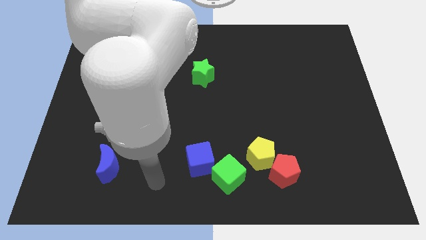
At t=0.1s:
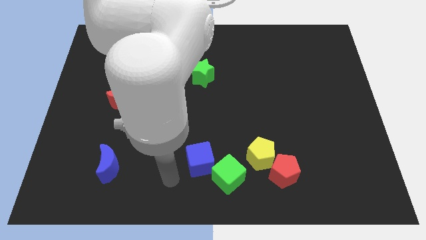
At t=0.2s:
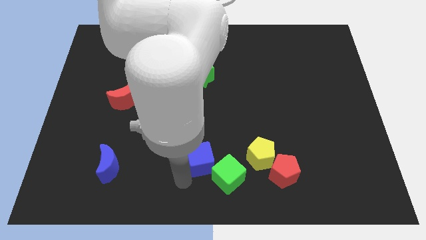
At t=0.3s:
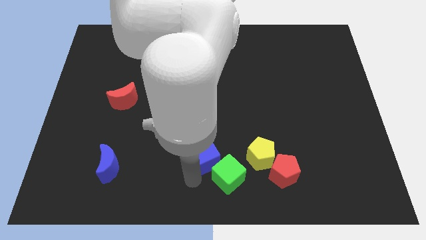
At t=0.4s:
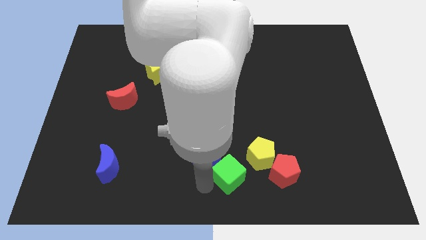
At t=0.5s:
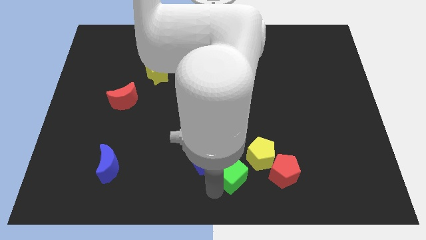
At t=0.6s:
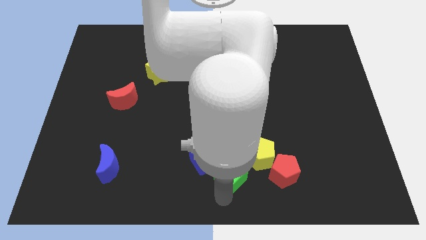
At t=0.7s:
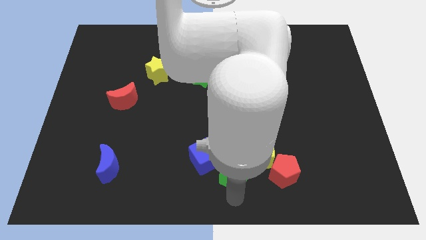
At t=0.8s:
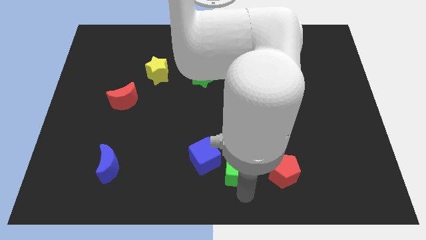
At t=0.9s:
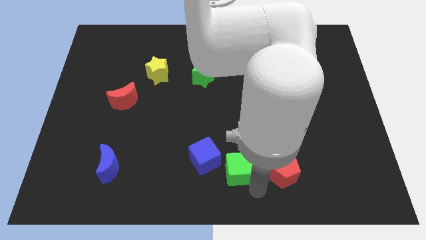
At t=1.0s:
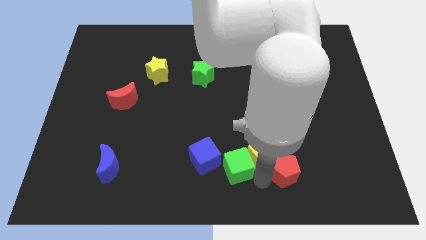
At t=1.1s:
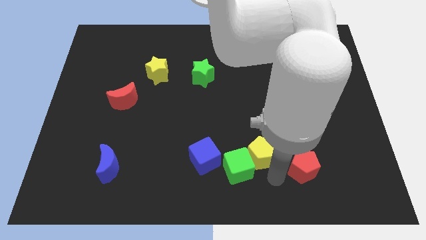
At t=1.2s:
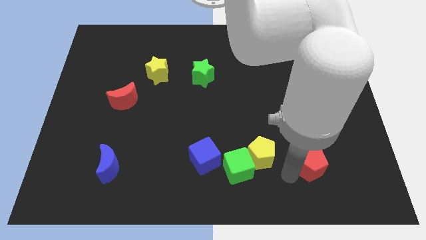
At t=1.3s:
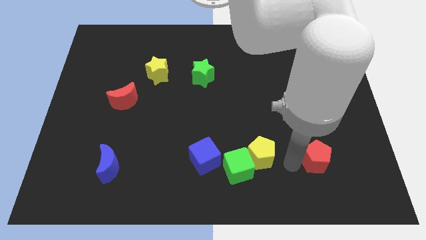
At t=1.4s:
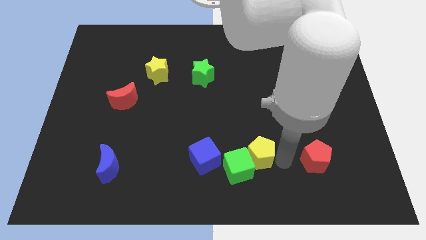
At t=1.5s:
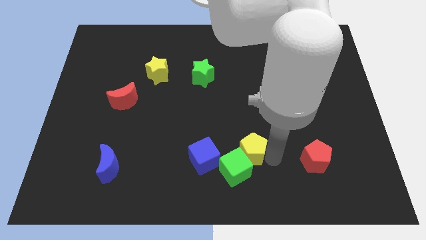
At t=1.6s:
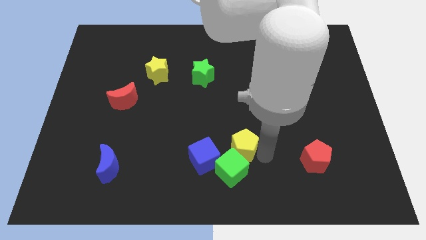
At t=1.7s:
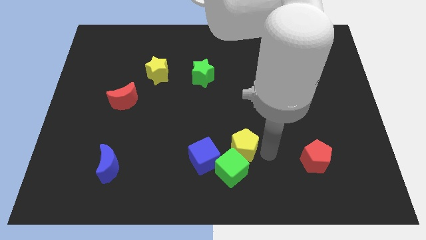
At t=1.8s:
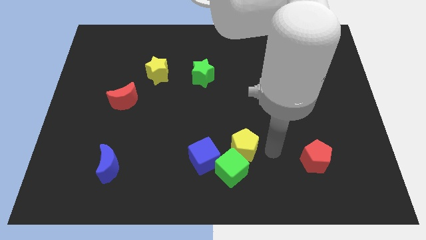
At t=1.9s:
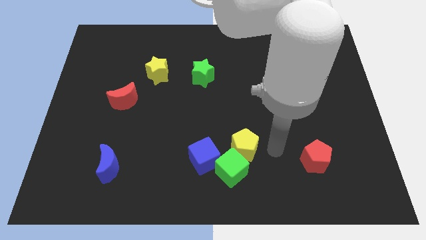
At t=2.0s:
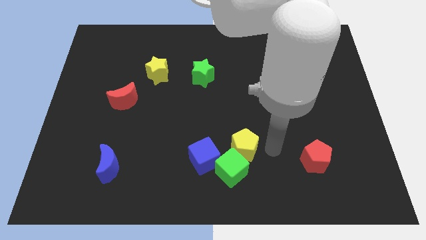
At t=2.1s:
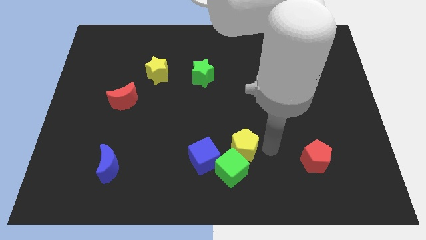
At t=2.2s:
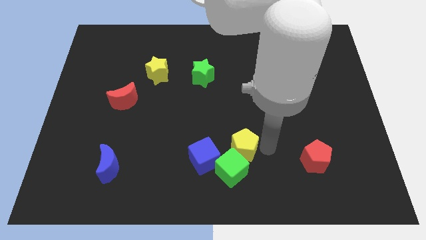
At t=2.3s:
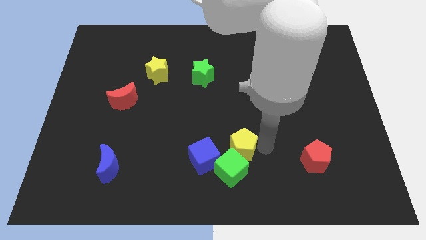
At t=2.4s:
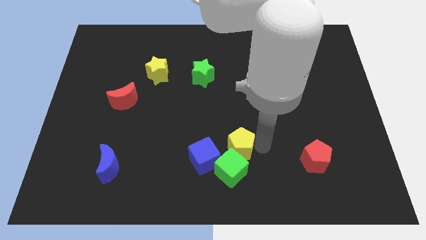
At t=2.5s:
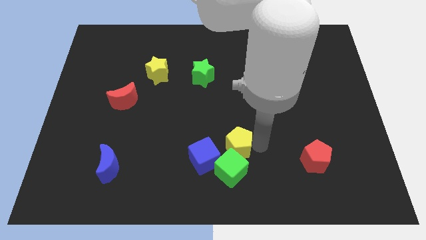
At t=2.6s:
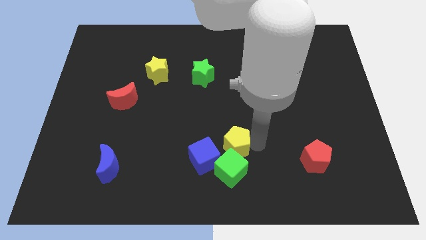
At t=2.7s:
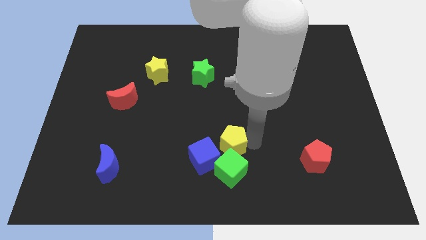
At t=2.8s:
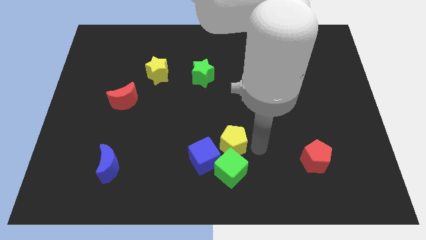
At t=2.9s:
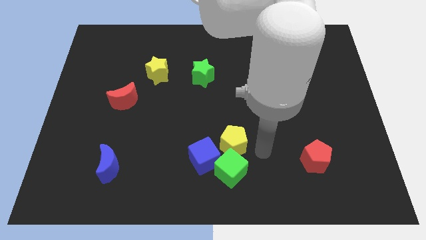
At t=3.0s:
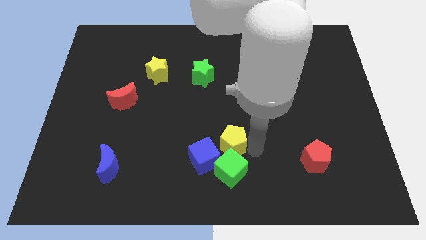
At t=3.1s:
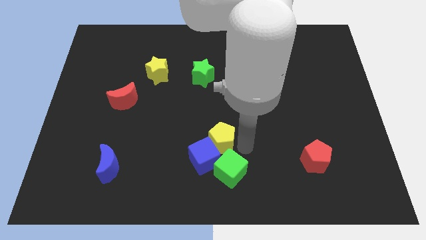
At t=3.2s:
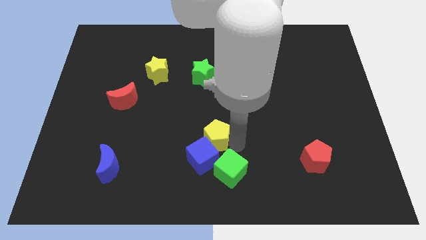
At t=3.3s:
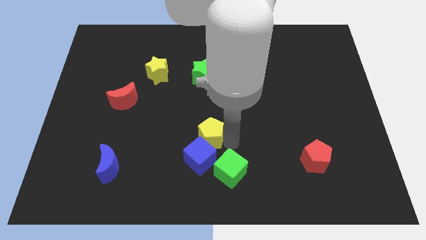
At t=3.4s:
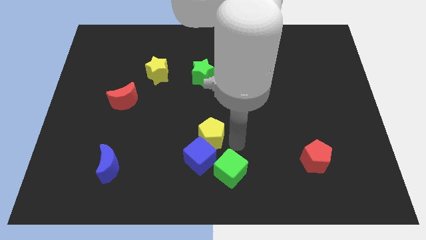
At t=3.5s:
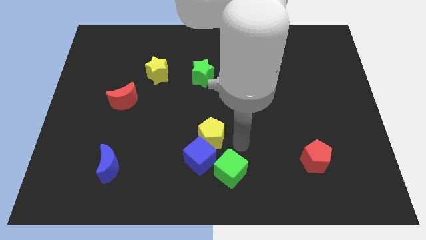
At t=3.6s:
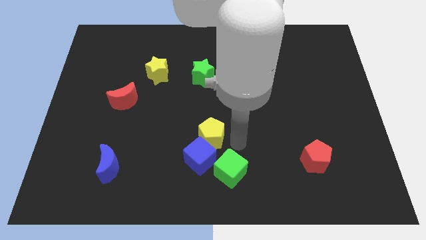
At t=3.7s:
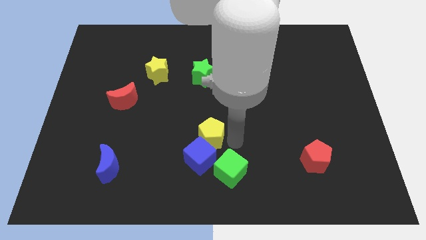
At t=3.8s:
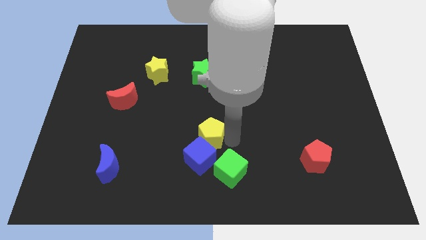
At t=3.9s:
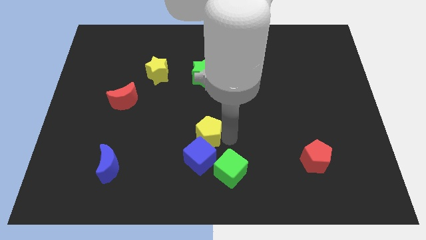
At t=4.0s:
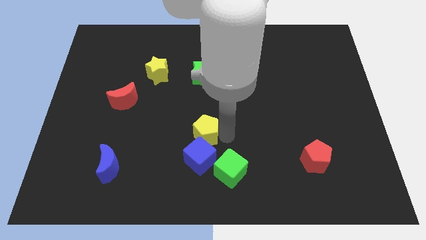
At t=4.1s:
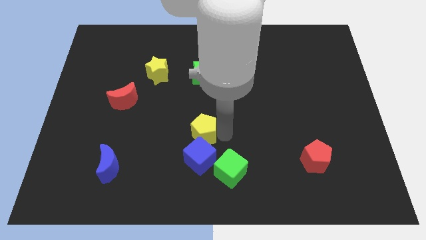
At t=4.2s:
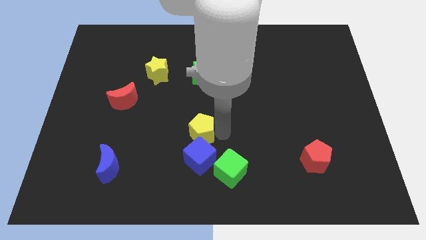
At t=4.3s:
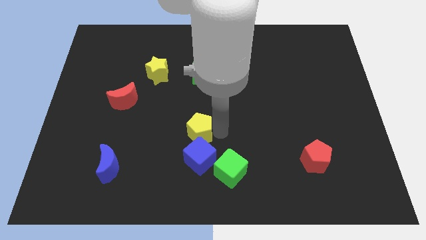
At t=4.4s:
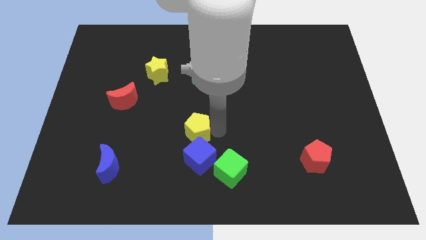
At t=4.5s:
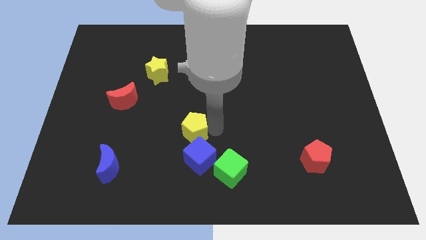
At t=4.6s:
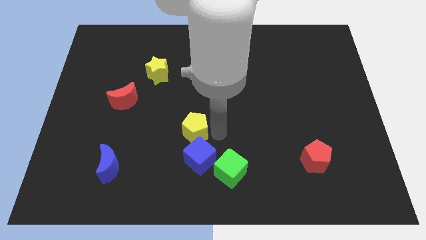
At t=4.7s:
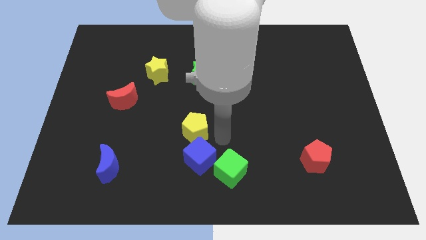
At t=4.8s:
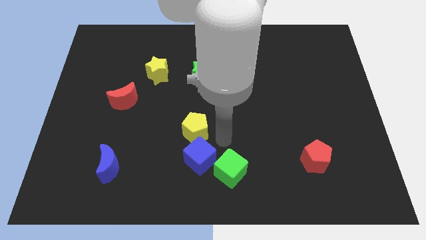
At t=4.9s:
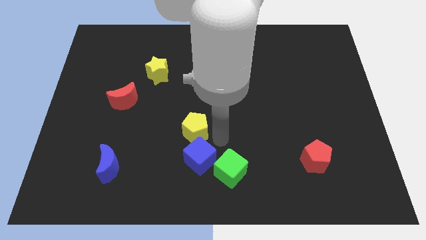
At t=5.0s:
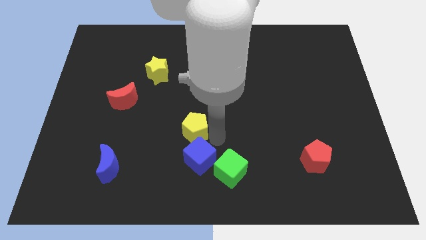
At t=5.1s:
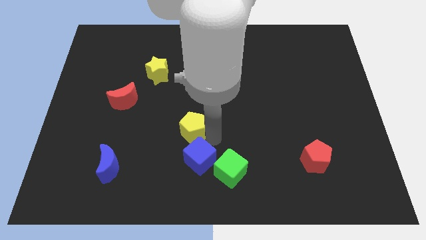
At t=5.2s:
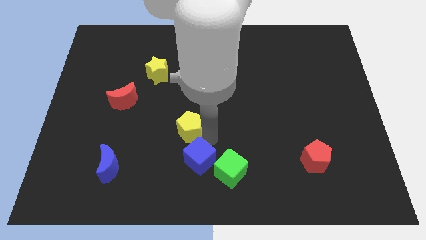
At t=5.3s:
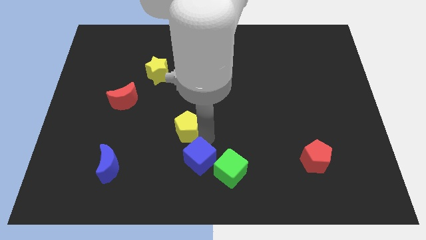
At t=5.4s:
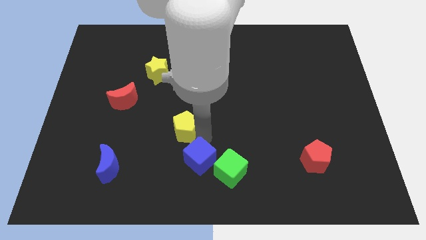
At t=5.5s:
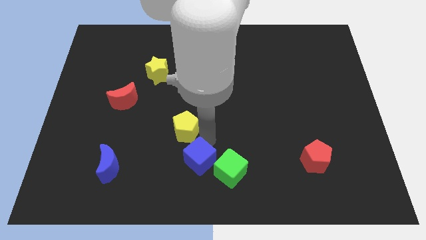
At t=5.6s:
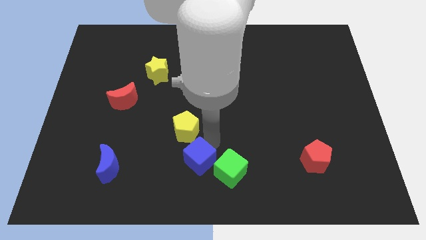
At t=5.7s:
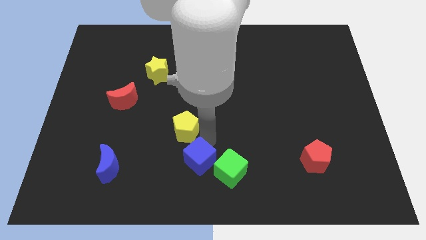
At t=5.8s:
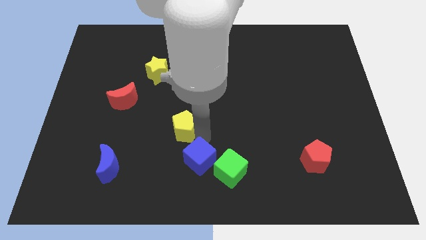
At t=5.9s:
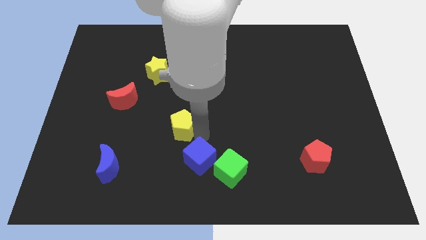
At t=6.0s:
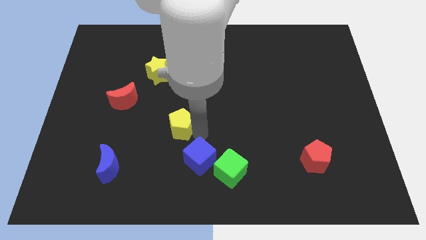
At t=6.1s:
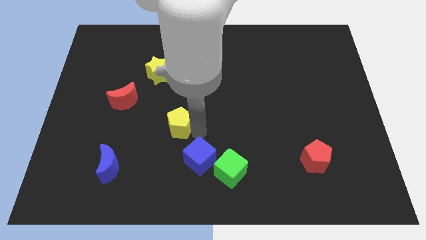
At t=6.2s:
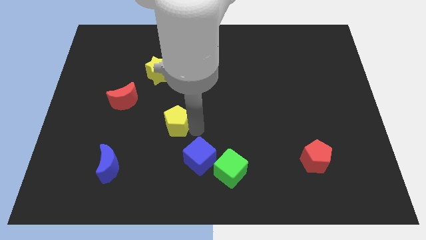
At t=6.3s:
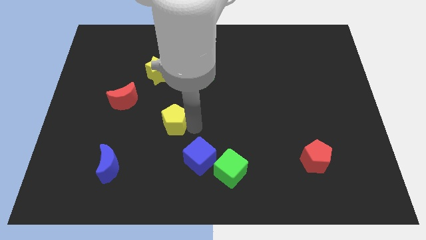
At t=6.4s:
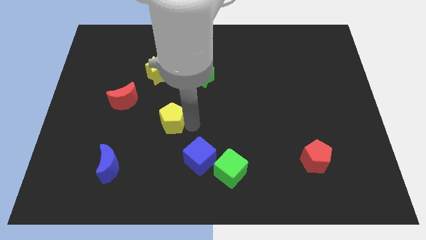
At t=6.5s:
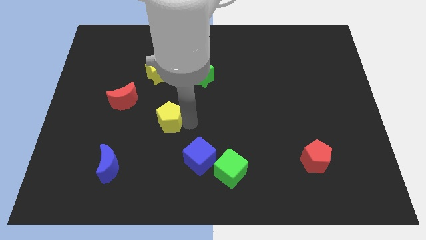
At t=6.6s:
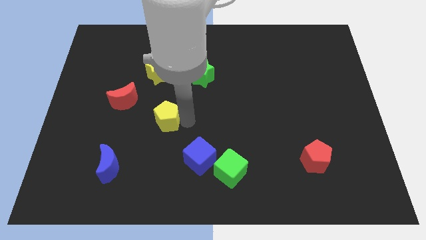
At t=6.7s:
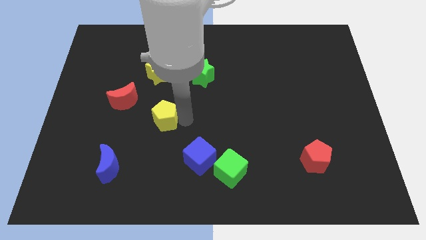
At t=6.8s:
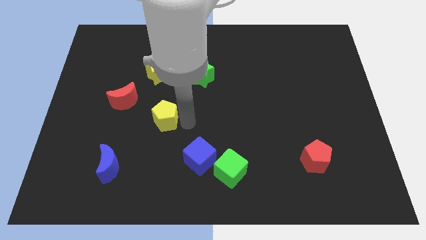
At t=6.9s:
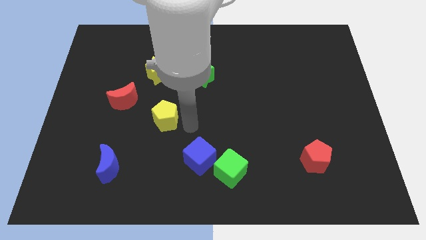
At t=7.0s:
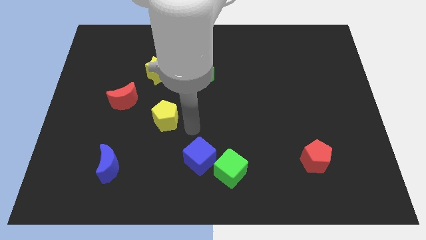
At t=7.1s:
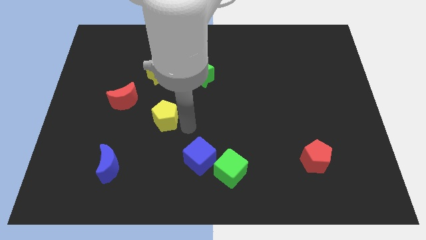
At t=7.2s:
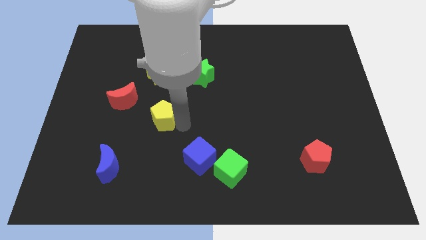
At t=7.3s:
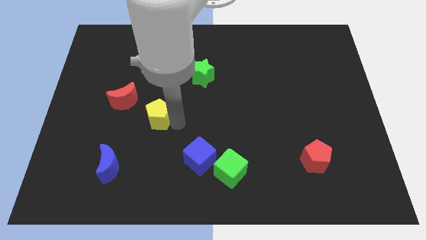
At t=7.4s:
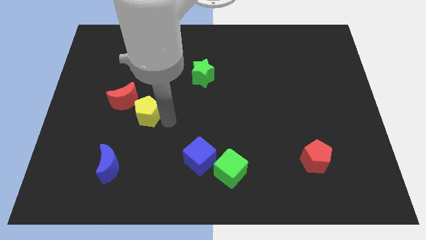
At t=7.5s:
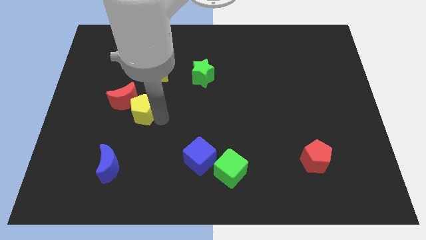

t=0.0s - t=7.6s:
push the yellow pentagon towards the red moon
